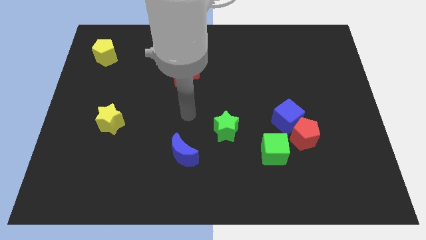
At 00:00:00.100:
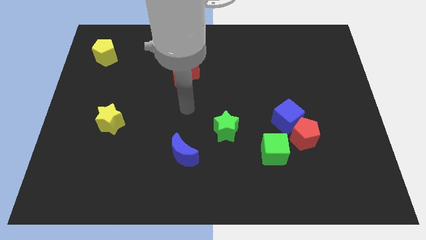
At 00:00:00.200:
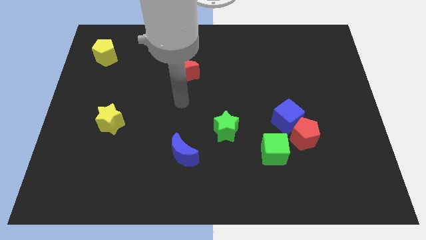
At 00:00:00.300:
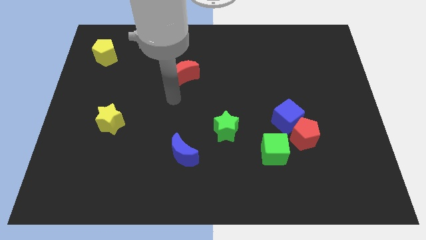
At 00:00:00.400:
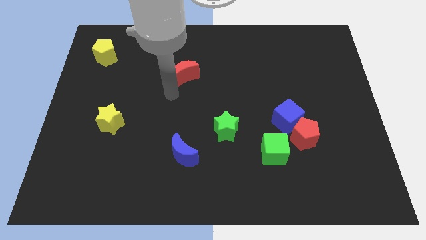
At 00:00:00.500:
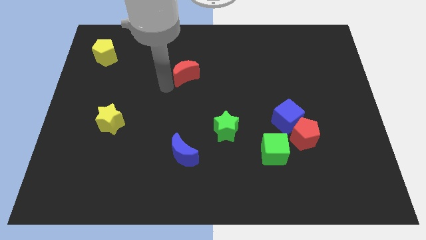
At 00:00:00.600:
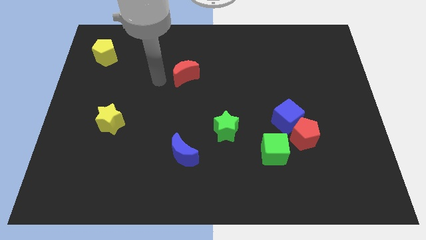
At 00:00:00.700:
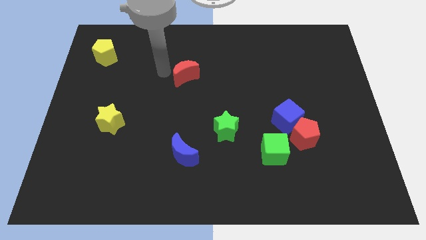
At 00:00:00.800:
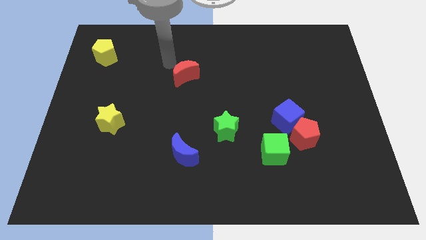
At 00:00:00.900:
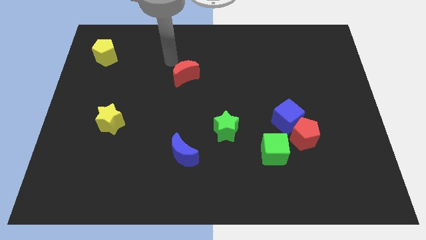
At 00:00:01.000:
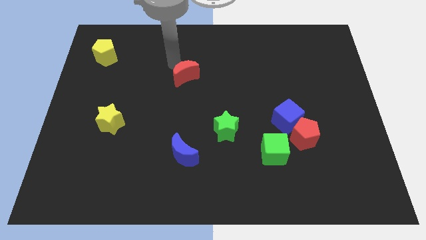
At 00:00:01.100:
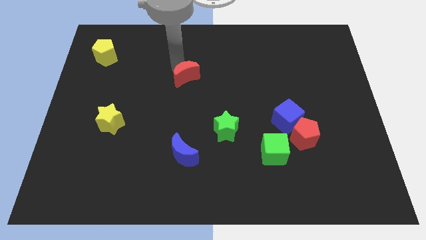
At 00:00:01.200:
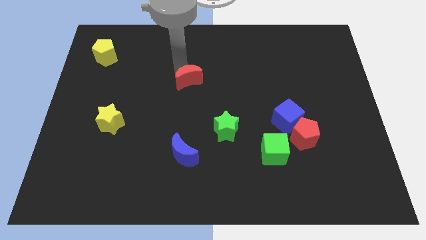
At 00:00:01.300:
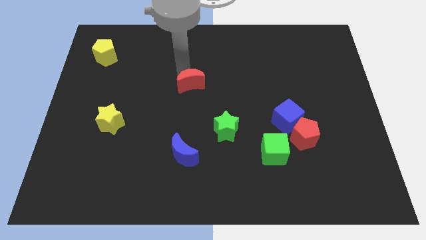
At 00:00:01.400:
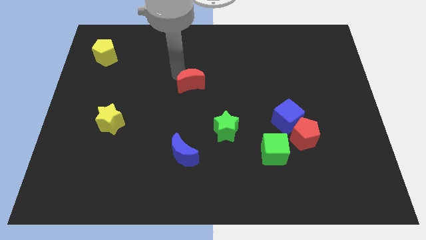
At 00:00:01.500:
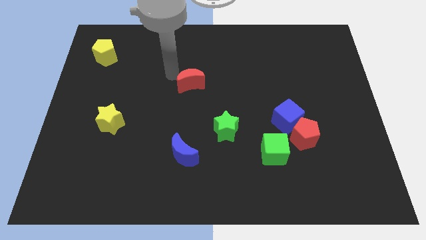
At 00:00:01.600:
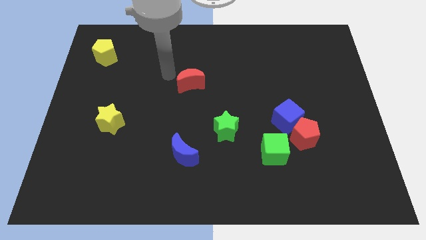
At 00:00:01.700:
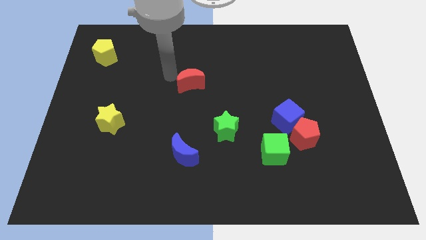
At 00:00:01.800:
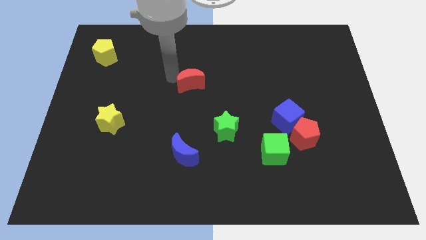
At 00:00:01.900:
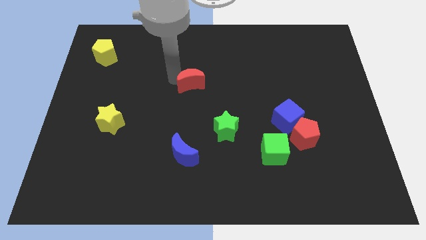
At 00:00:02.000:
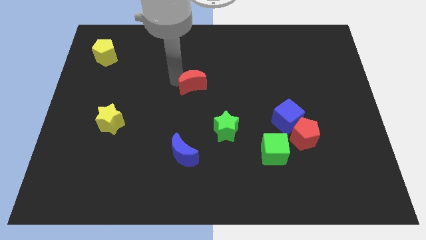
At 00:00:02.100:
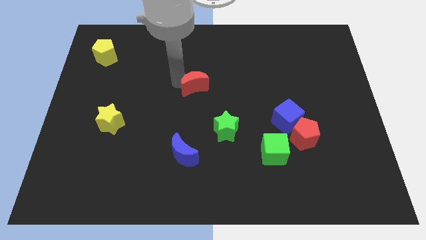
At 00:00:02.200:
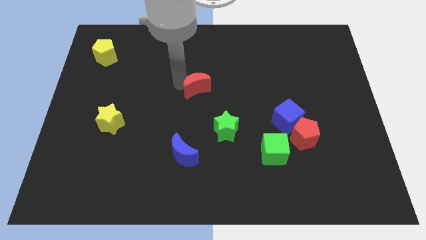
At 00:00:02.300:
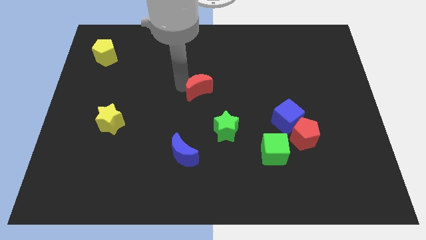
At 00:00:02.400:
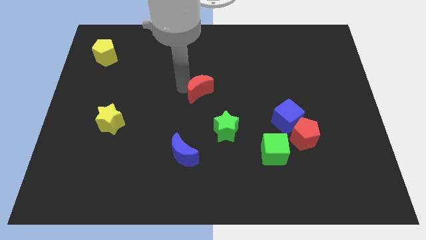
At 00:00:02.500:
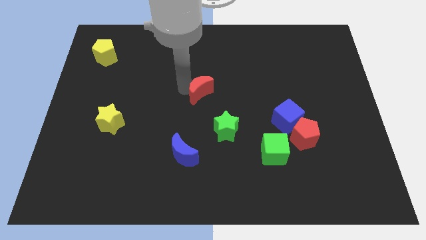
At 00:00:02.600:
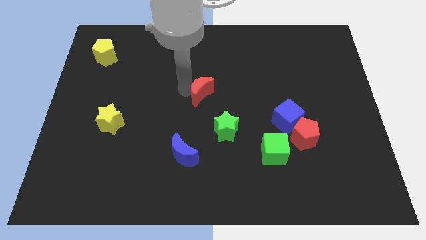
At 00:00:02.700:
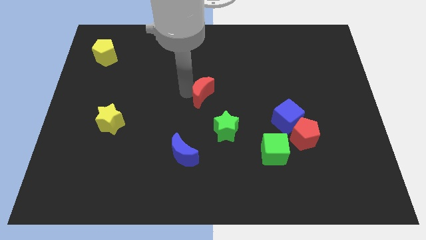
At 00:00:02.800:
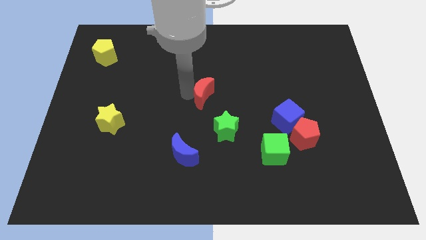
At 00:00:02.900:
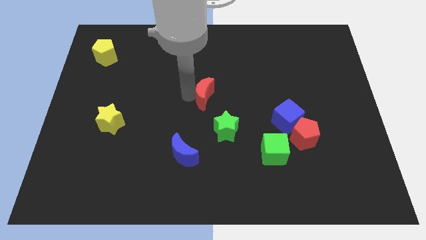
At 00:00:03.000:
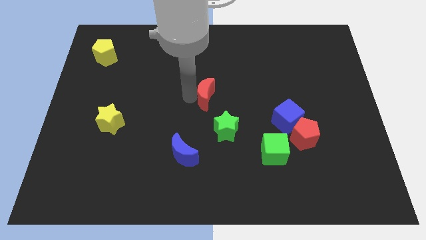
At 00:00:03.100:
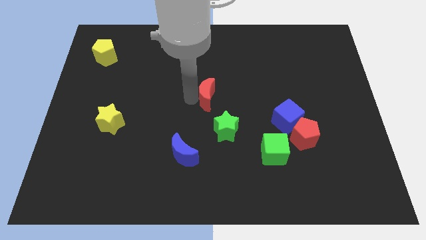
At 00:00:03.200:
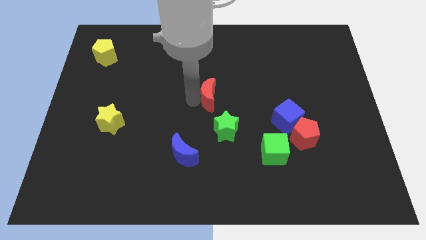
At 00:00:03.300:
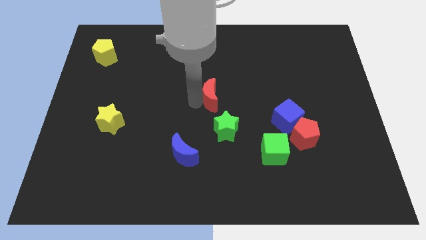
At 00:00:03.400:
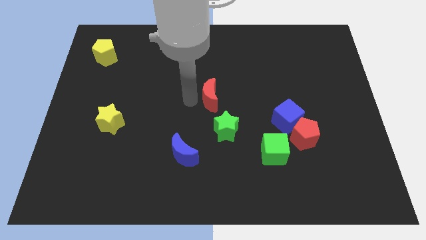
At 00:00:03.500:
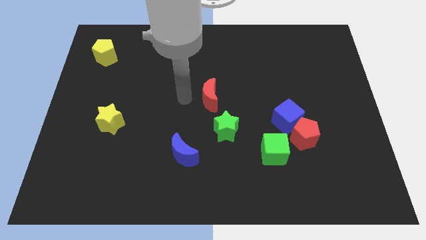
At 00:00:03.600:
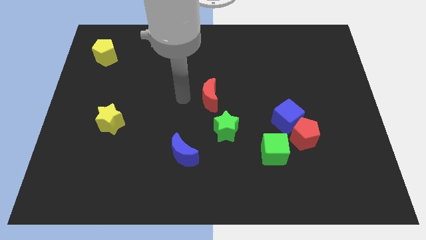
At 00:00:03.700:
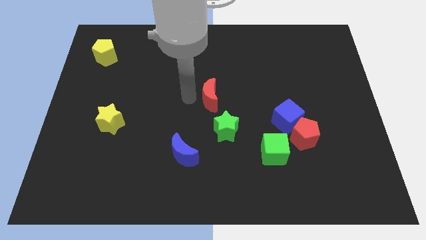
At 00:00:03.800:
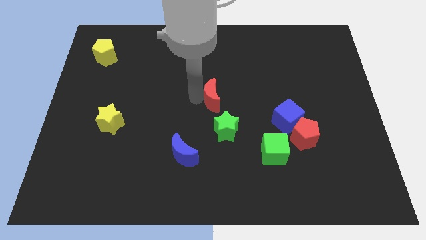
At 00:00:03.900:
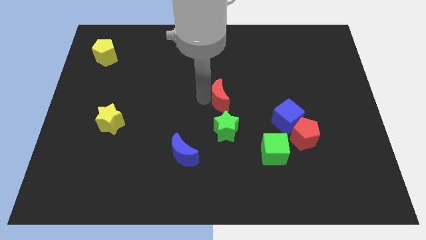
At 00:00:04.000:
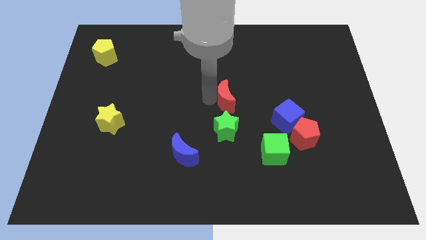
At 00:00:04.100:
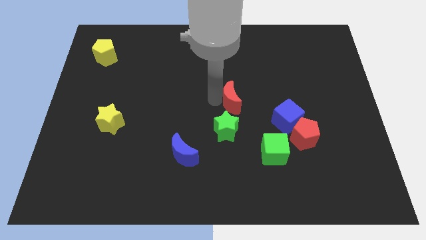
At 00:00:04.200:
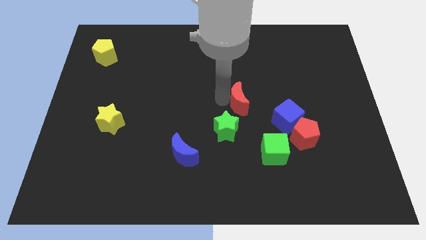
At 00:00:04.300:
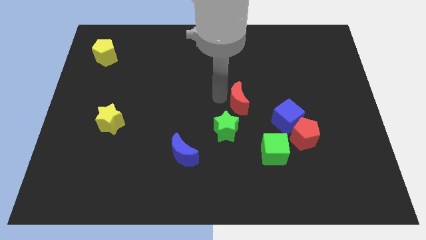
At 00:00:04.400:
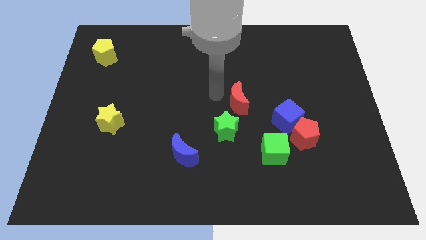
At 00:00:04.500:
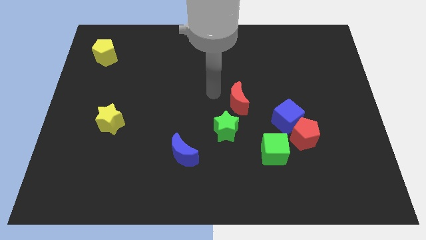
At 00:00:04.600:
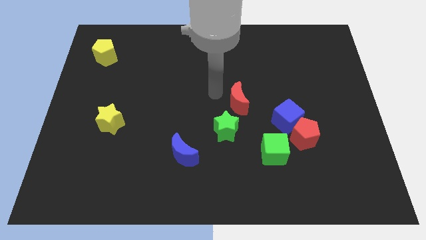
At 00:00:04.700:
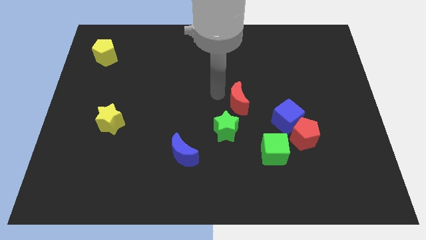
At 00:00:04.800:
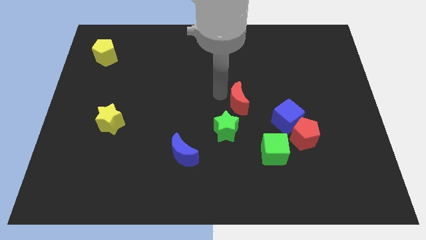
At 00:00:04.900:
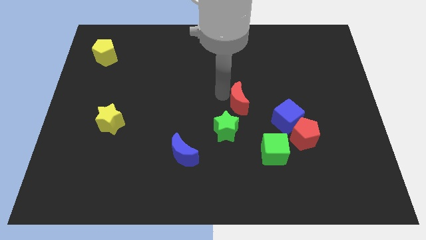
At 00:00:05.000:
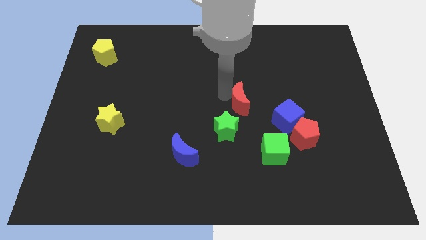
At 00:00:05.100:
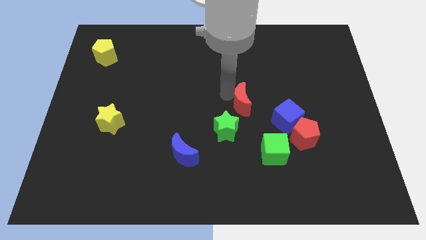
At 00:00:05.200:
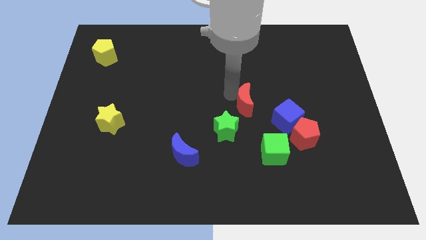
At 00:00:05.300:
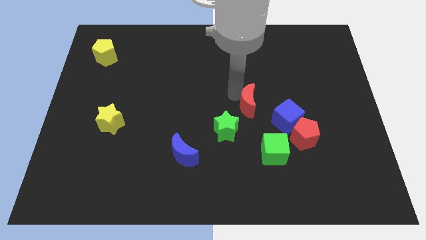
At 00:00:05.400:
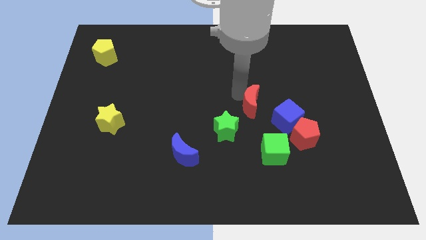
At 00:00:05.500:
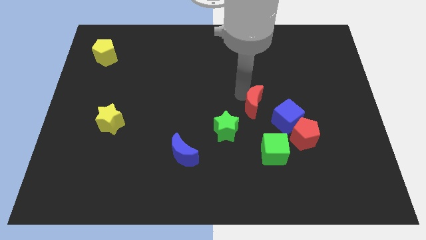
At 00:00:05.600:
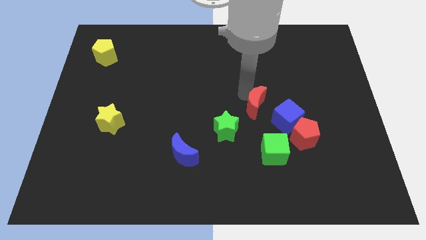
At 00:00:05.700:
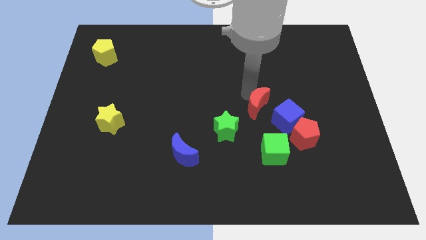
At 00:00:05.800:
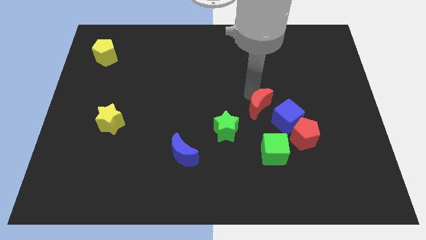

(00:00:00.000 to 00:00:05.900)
push the red moon to the top left side of the red pentagon

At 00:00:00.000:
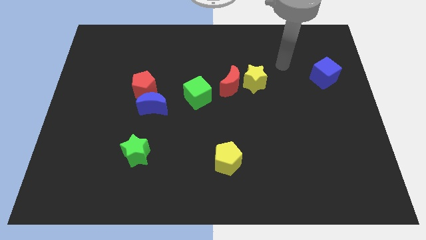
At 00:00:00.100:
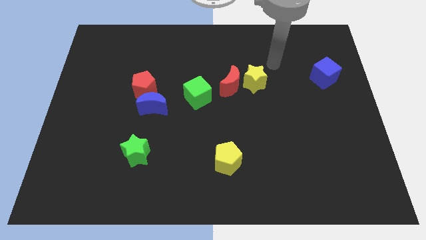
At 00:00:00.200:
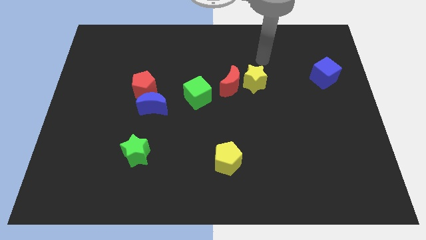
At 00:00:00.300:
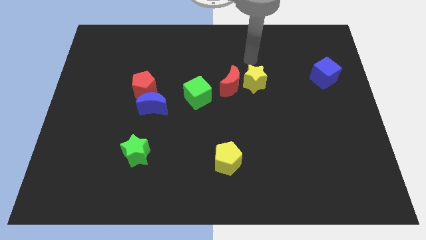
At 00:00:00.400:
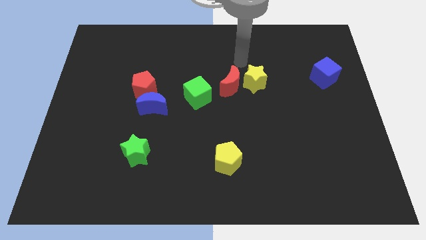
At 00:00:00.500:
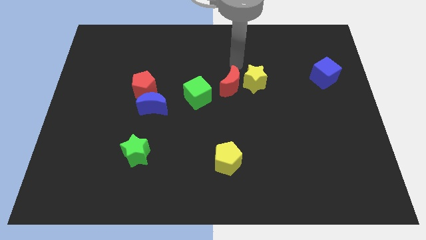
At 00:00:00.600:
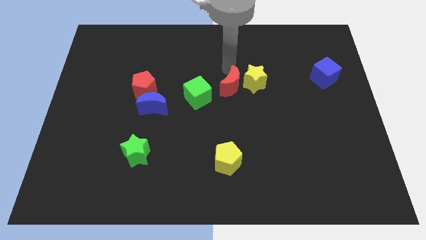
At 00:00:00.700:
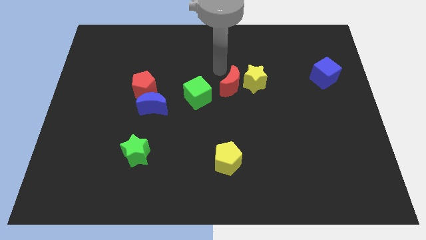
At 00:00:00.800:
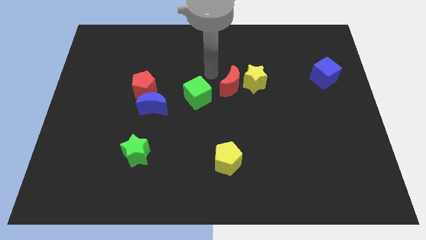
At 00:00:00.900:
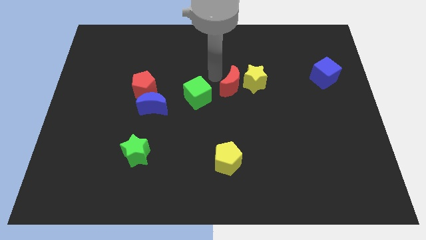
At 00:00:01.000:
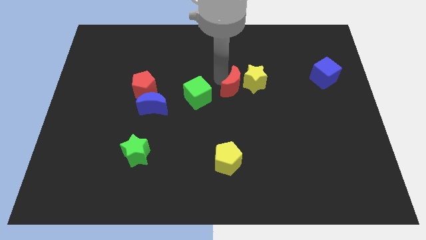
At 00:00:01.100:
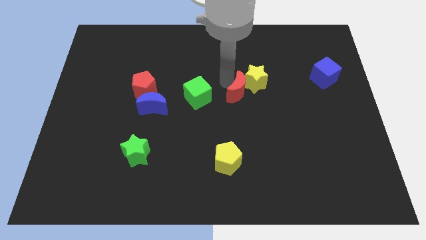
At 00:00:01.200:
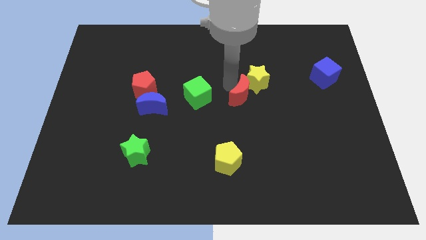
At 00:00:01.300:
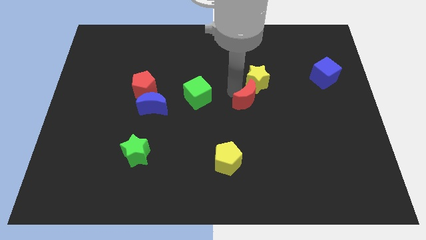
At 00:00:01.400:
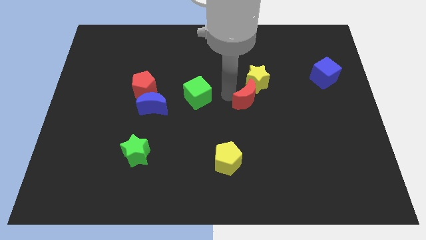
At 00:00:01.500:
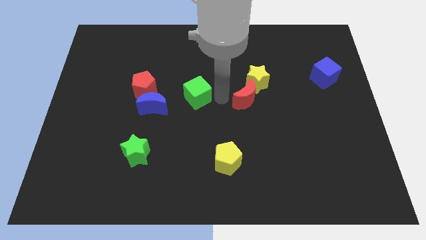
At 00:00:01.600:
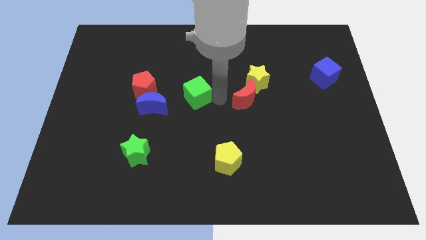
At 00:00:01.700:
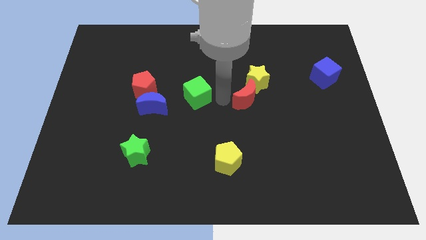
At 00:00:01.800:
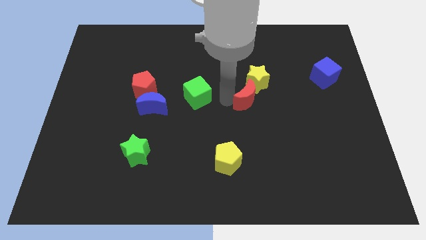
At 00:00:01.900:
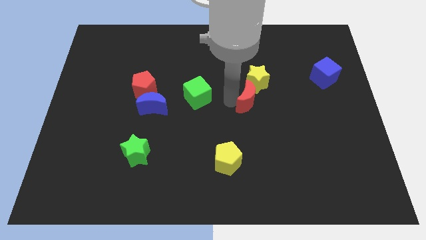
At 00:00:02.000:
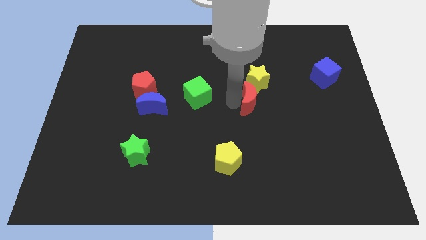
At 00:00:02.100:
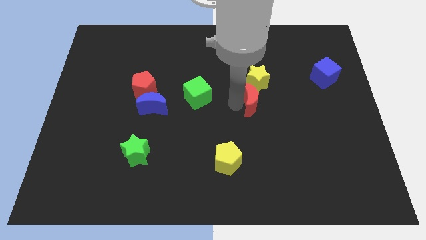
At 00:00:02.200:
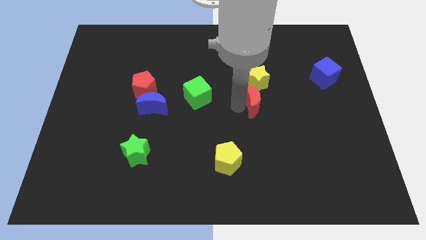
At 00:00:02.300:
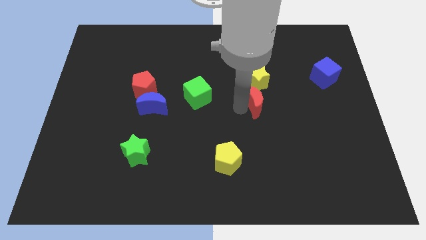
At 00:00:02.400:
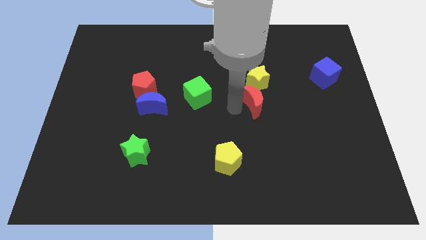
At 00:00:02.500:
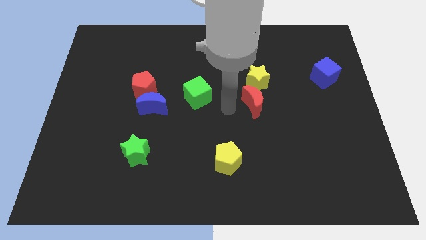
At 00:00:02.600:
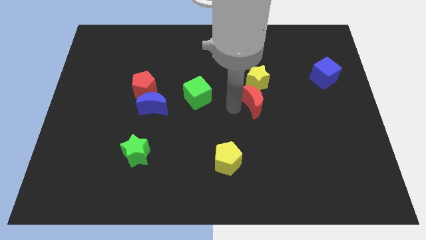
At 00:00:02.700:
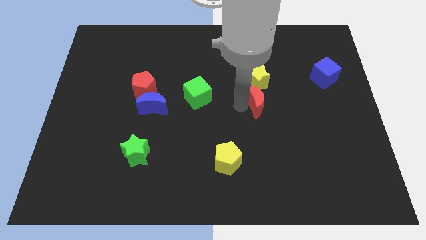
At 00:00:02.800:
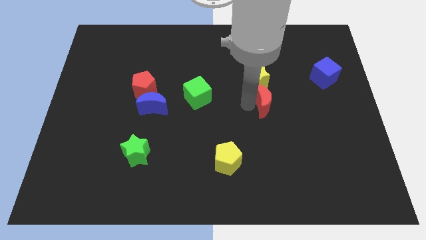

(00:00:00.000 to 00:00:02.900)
slide the red moon to the bottom right of the yellow star
